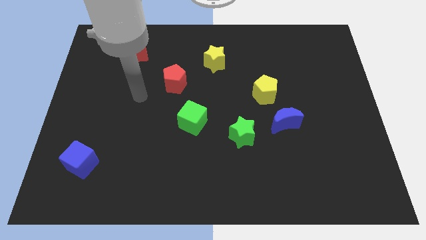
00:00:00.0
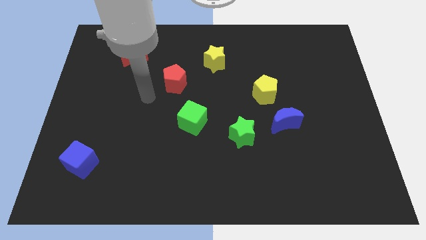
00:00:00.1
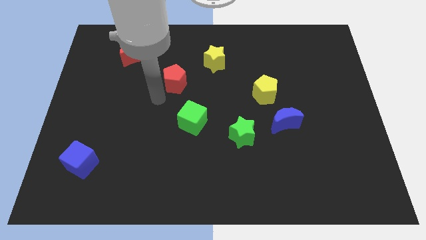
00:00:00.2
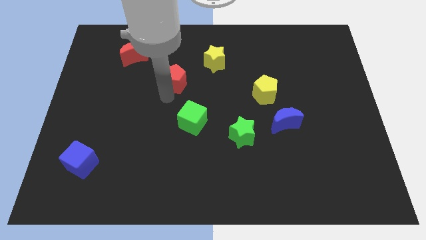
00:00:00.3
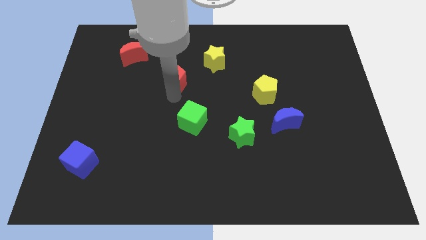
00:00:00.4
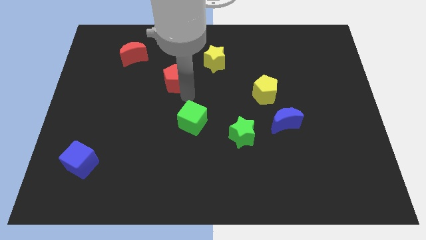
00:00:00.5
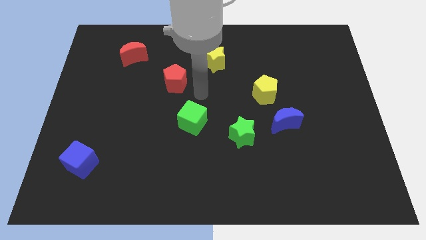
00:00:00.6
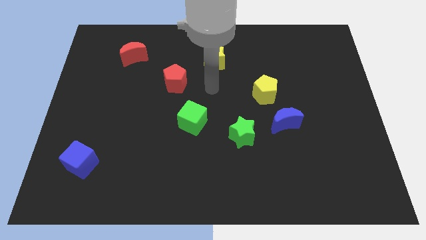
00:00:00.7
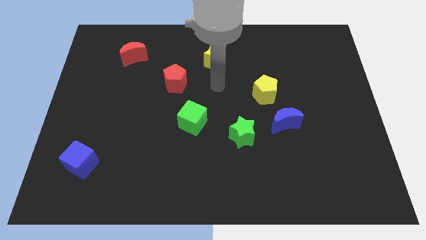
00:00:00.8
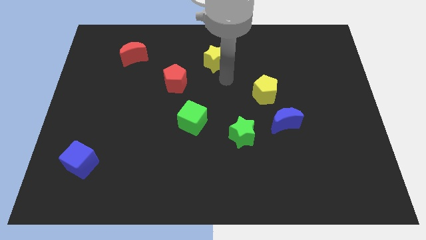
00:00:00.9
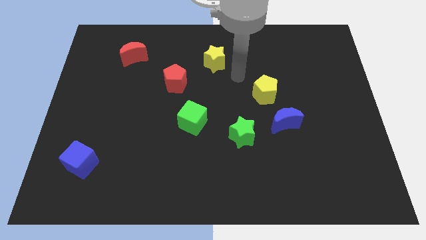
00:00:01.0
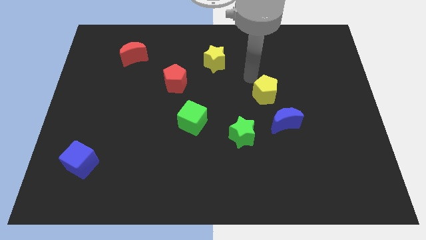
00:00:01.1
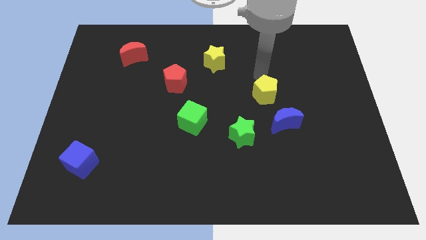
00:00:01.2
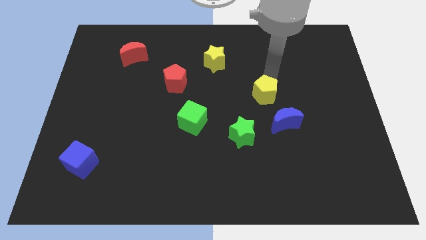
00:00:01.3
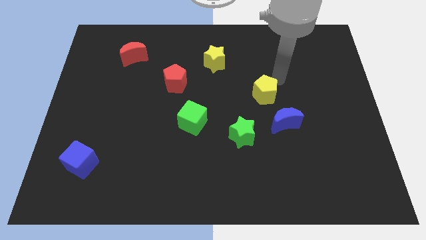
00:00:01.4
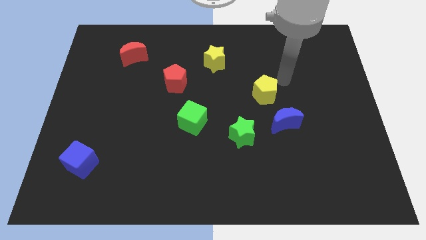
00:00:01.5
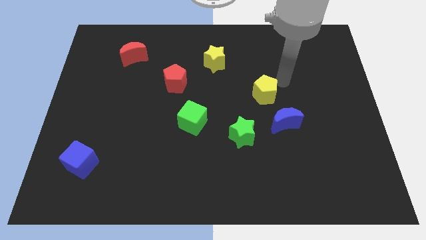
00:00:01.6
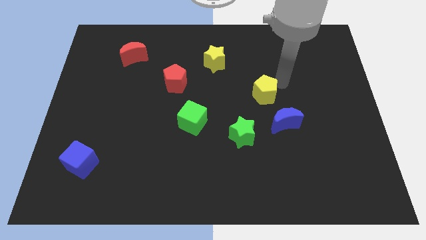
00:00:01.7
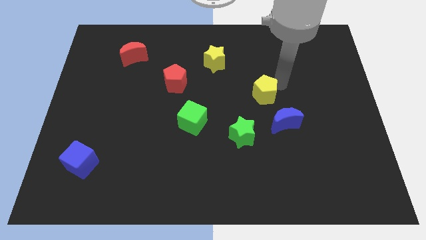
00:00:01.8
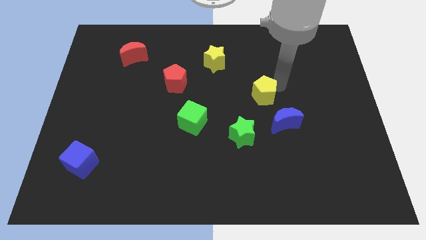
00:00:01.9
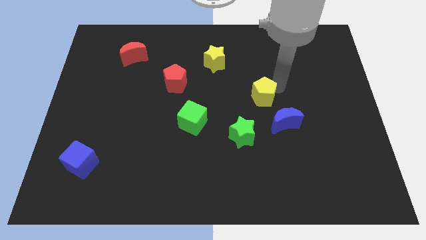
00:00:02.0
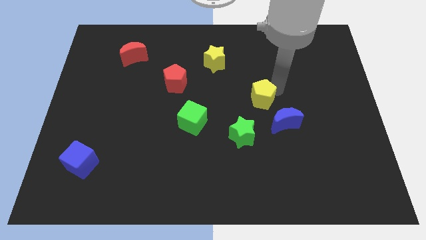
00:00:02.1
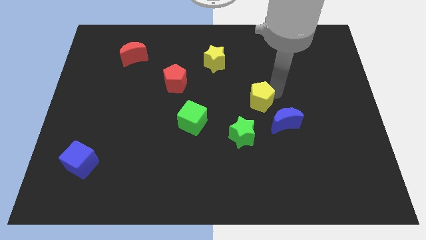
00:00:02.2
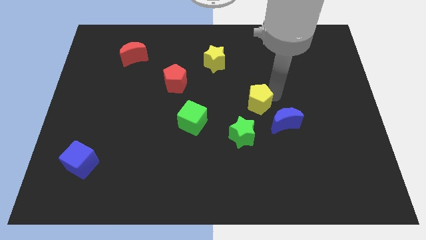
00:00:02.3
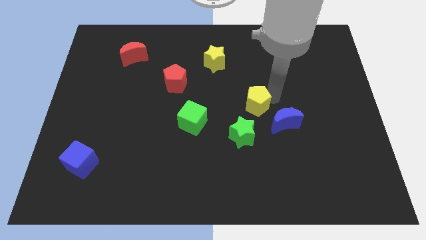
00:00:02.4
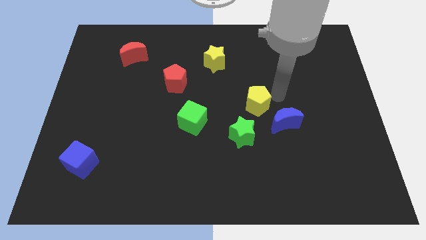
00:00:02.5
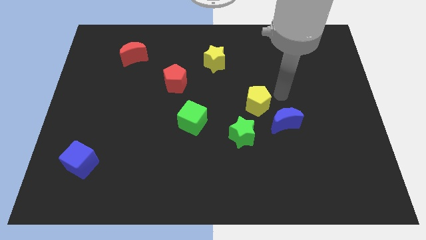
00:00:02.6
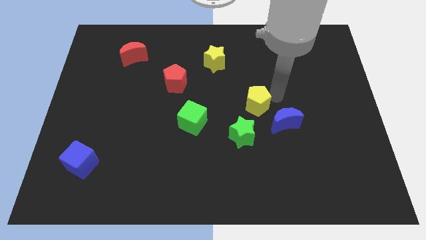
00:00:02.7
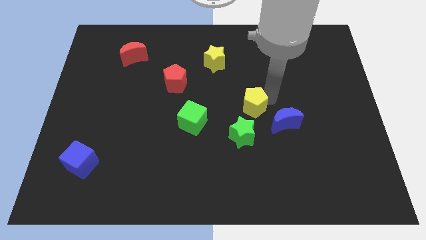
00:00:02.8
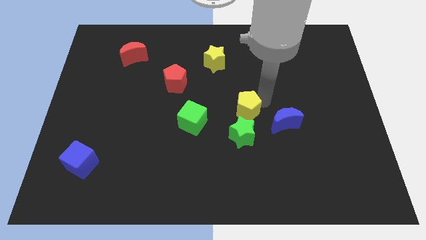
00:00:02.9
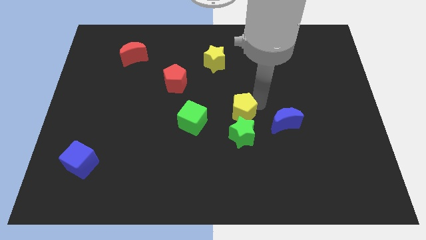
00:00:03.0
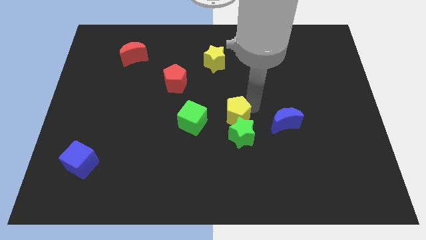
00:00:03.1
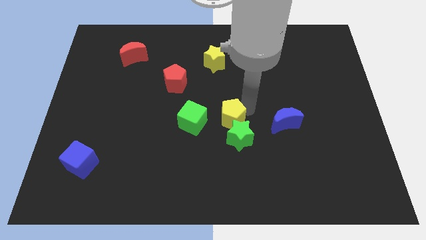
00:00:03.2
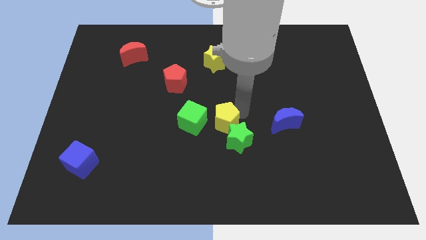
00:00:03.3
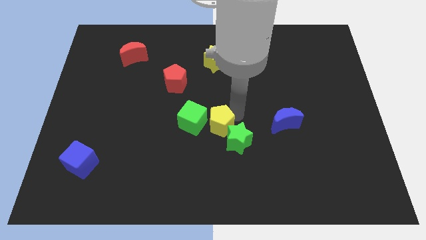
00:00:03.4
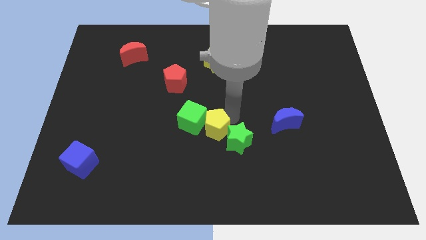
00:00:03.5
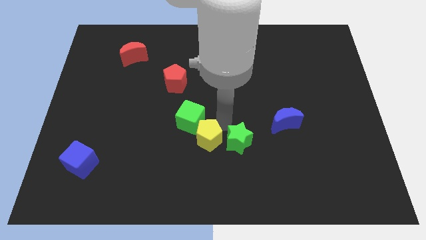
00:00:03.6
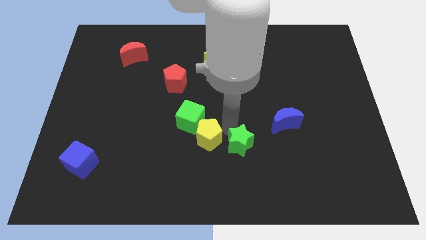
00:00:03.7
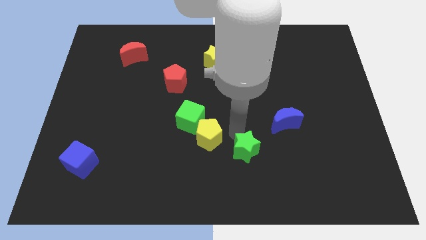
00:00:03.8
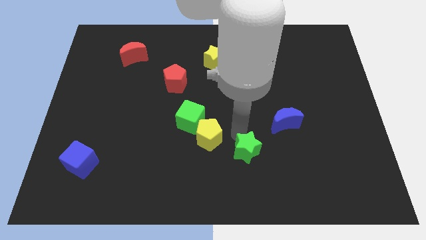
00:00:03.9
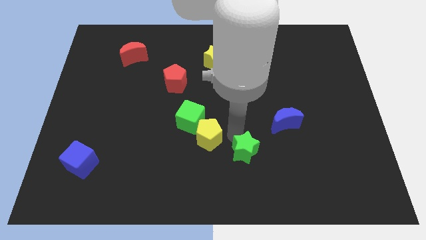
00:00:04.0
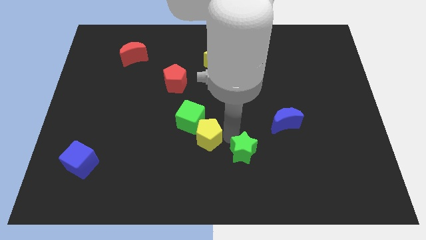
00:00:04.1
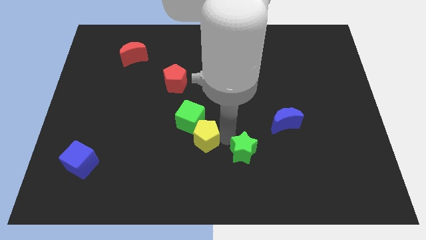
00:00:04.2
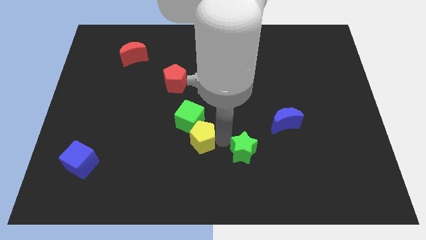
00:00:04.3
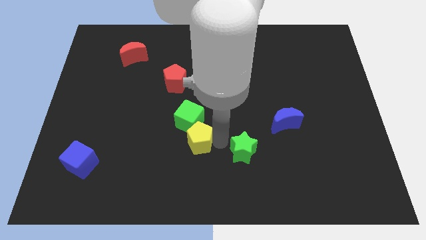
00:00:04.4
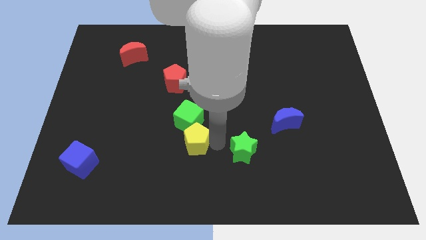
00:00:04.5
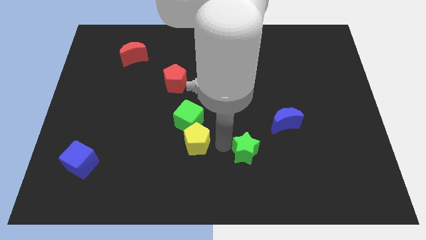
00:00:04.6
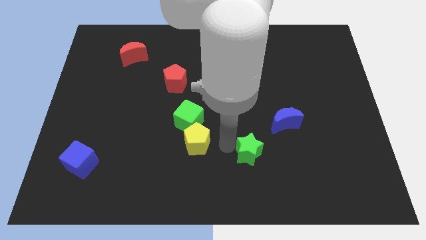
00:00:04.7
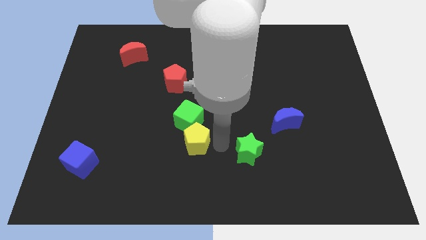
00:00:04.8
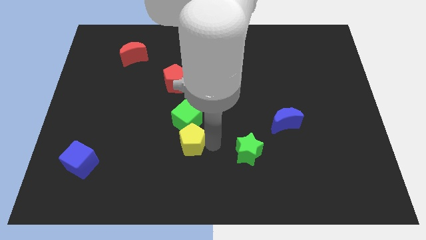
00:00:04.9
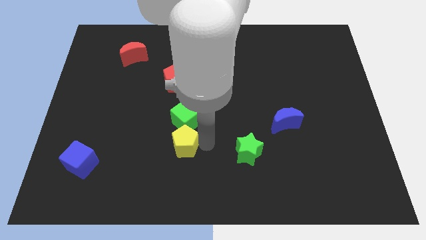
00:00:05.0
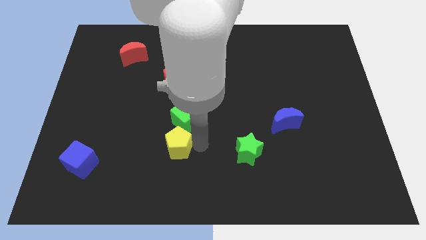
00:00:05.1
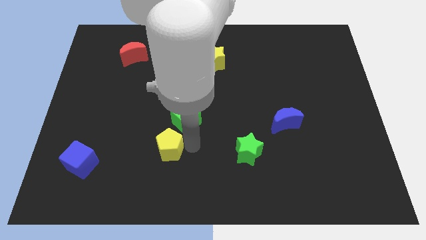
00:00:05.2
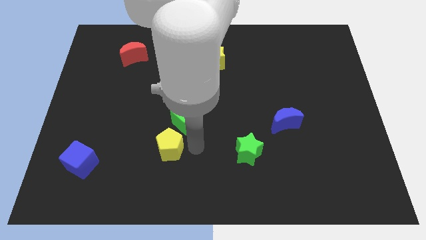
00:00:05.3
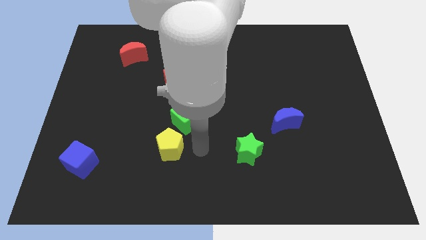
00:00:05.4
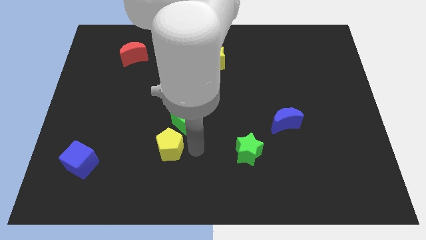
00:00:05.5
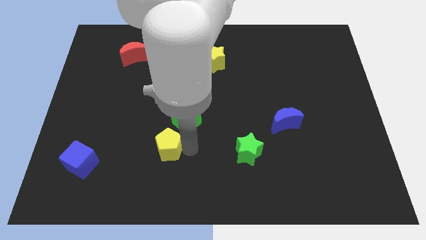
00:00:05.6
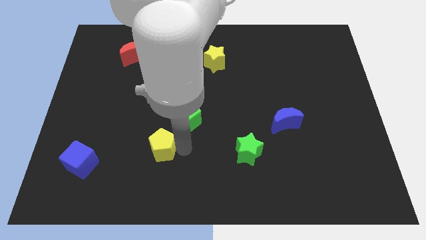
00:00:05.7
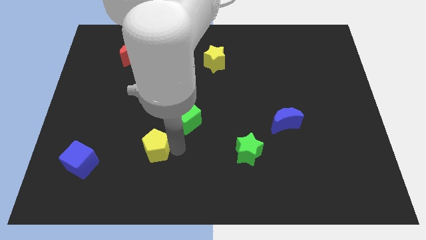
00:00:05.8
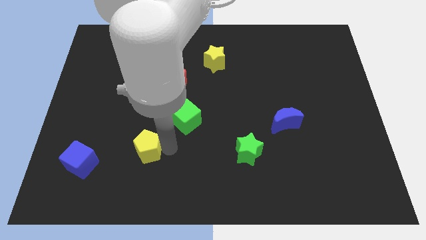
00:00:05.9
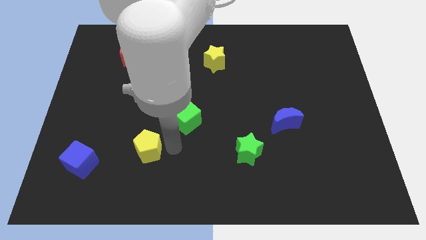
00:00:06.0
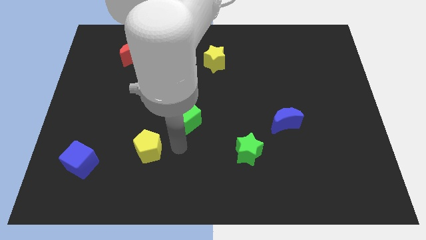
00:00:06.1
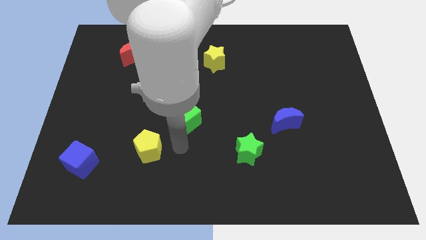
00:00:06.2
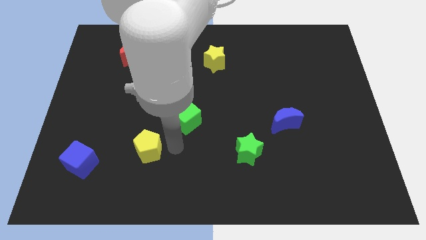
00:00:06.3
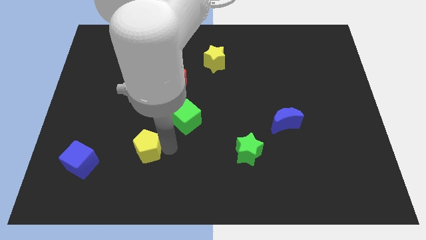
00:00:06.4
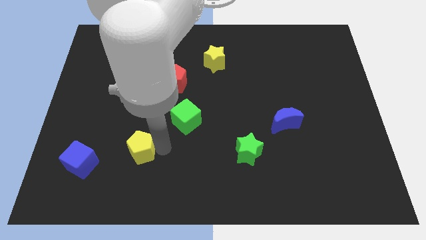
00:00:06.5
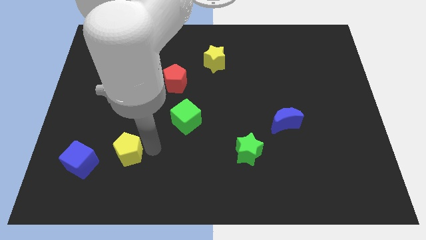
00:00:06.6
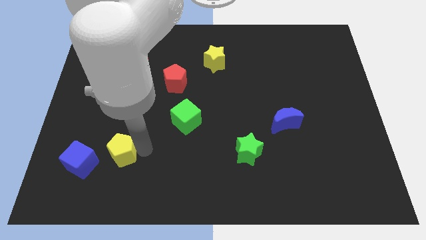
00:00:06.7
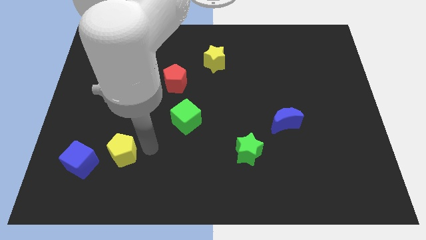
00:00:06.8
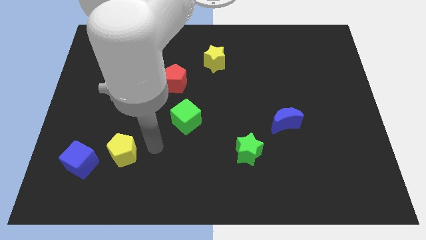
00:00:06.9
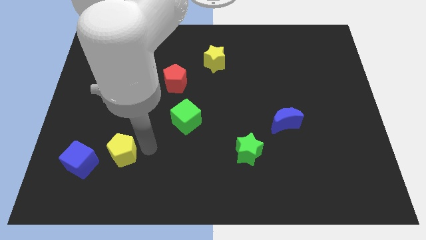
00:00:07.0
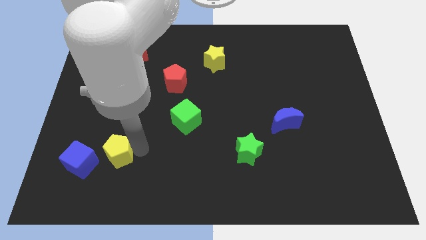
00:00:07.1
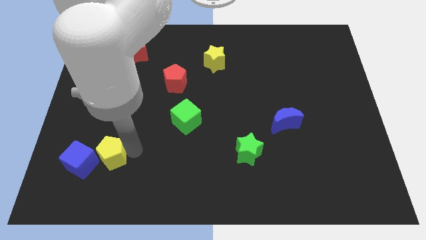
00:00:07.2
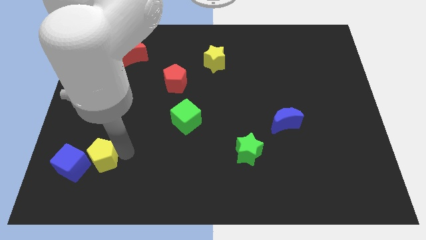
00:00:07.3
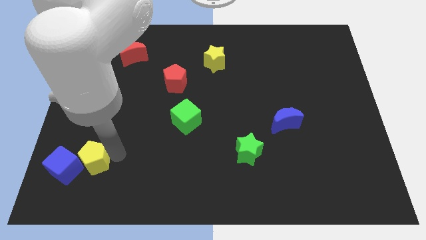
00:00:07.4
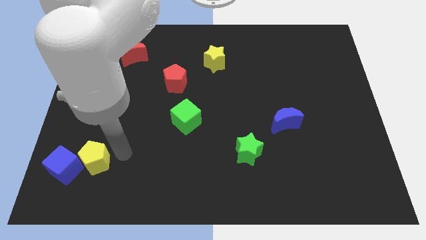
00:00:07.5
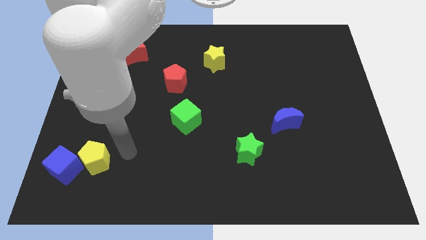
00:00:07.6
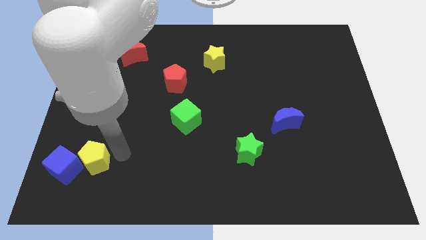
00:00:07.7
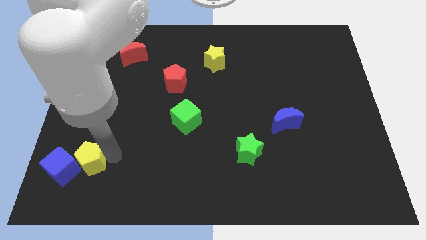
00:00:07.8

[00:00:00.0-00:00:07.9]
push the yellow pentagon close to the blue cube
